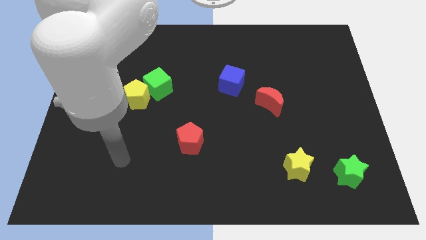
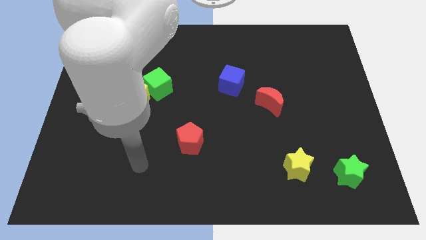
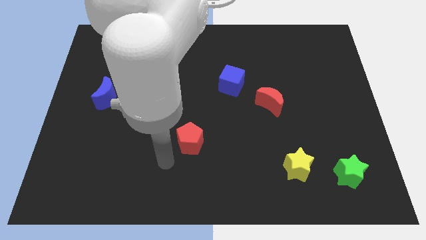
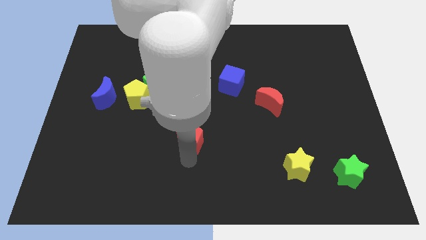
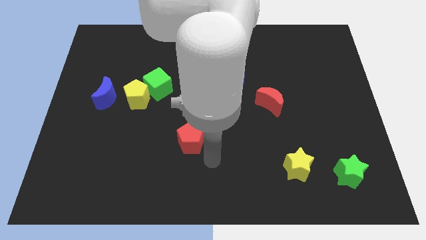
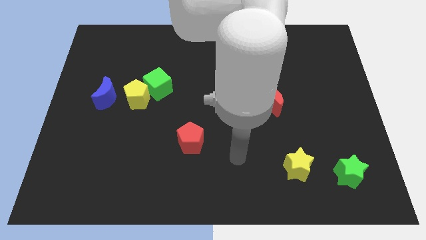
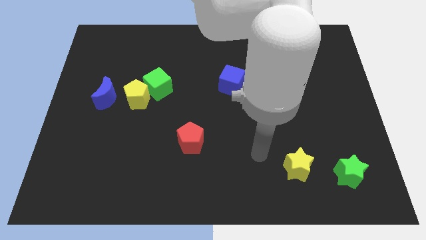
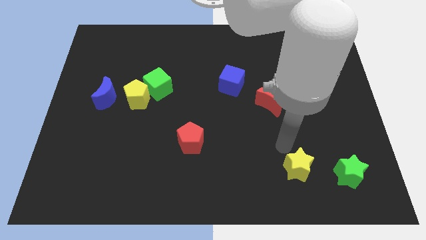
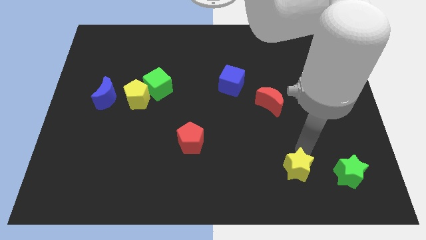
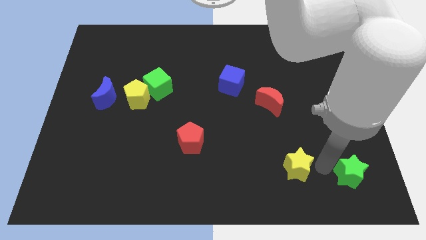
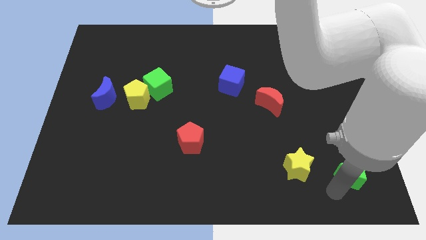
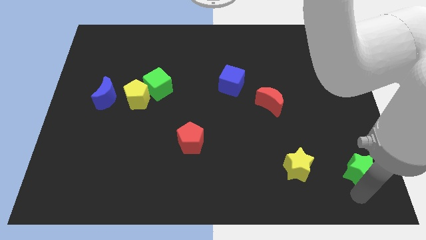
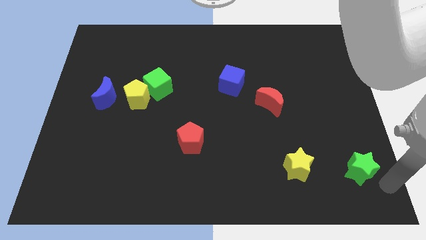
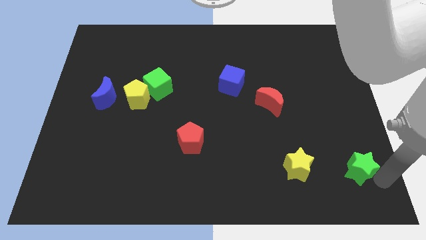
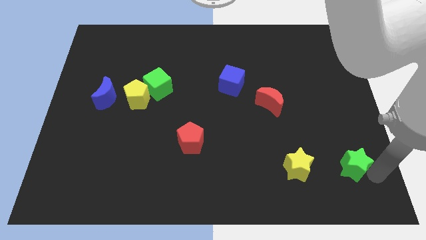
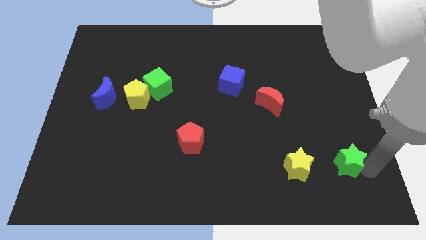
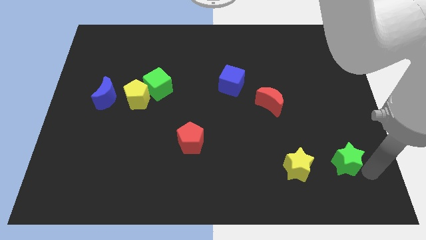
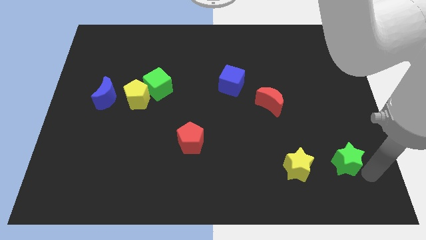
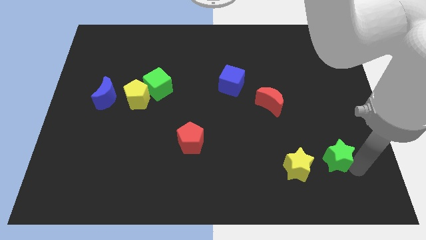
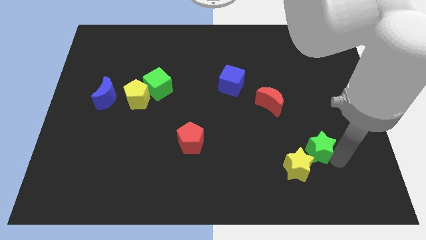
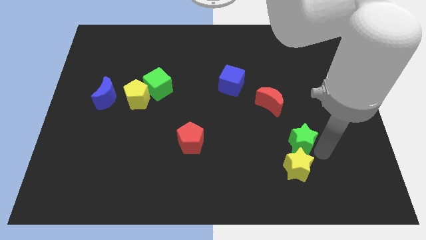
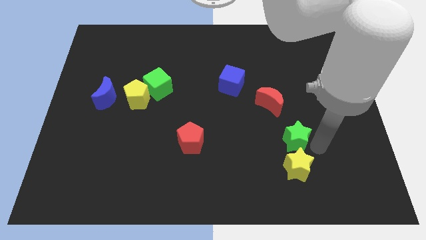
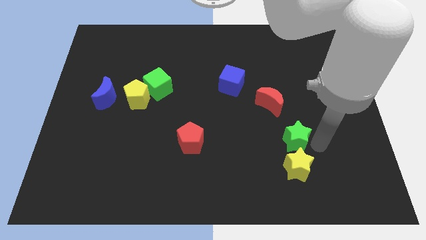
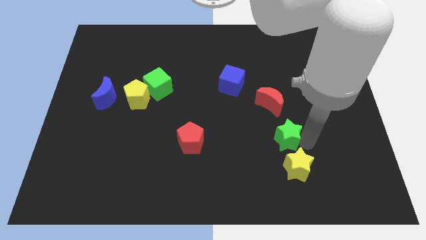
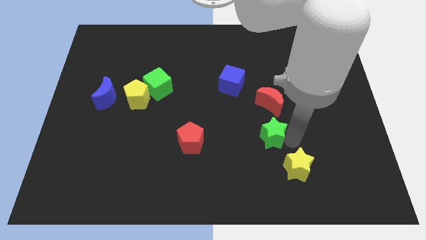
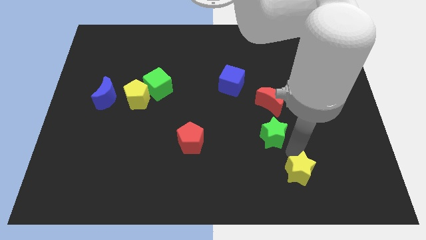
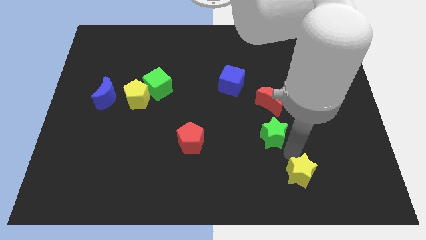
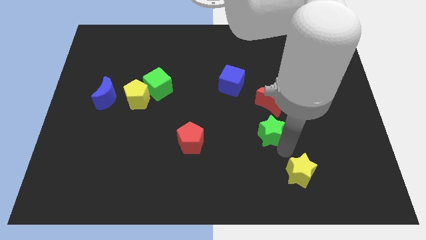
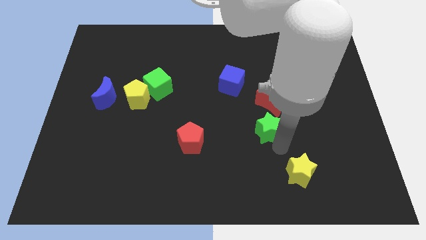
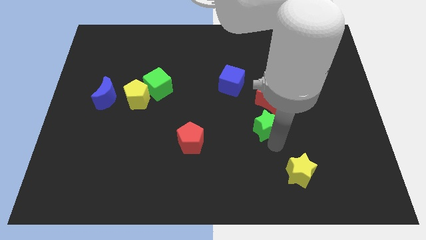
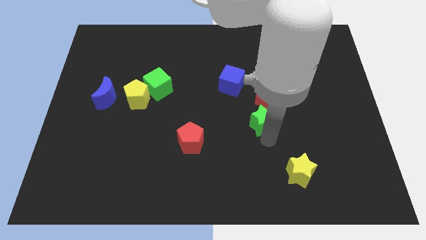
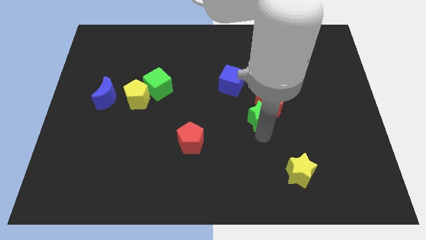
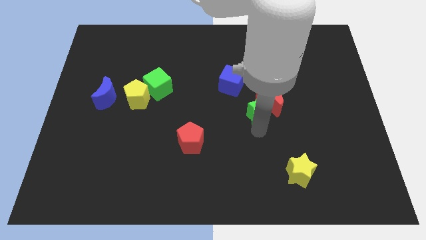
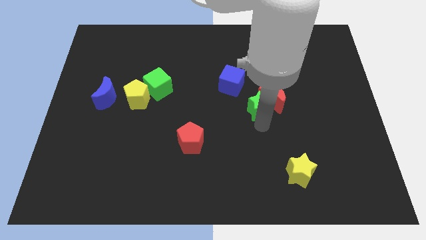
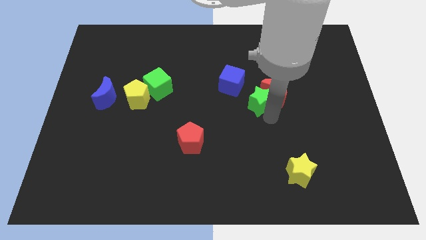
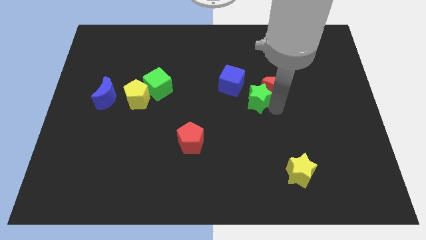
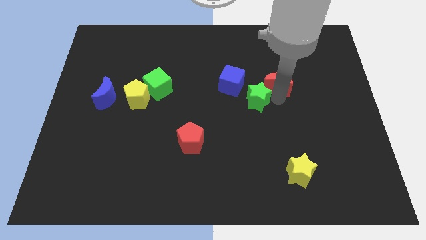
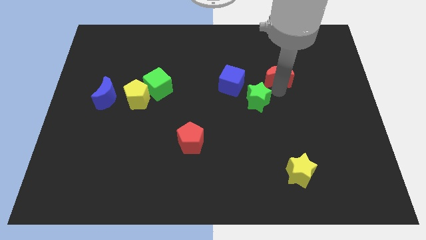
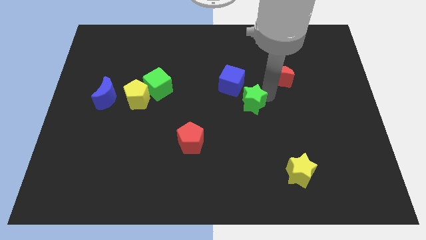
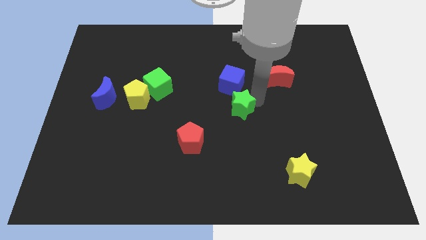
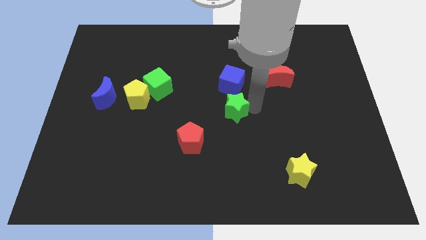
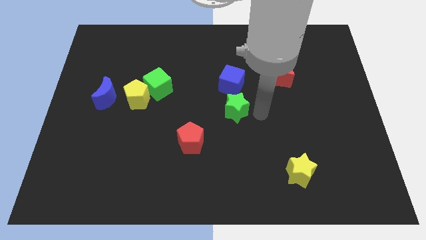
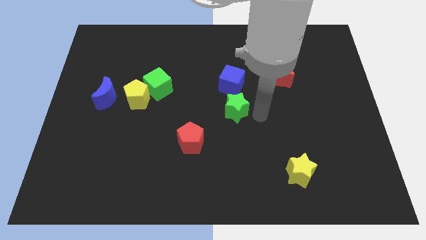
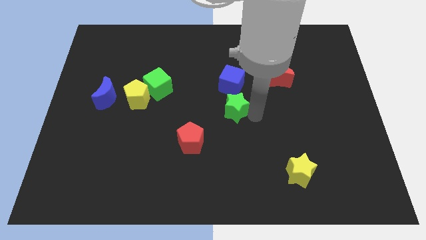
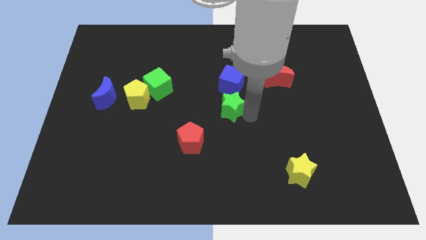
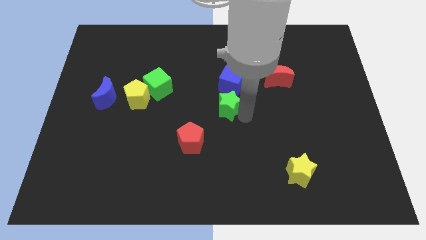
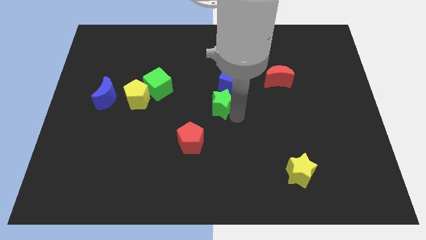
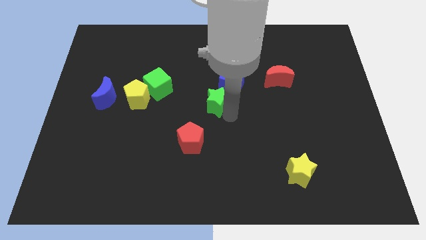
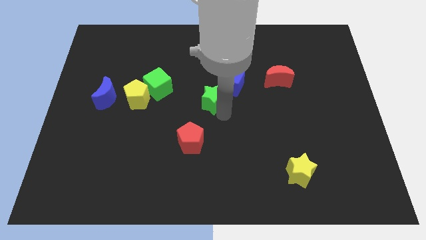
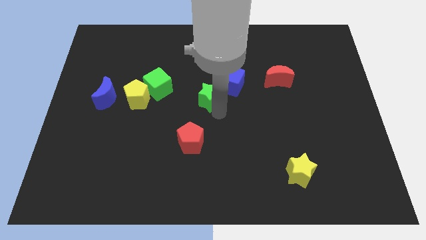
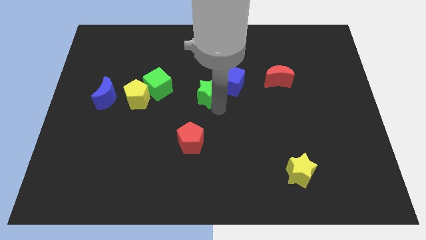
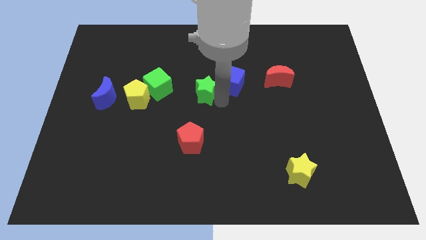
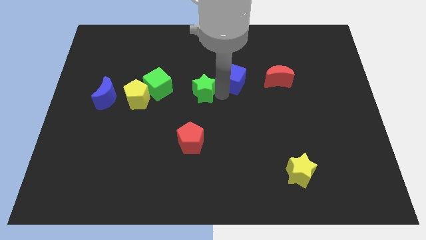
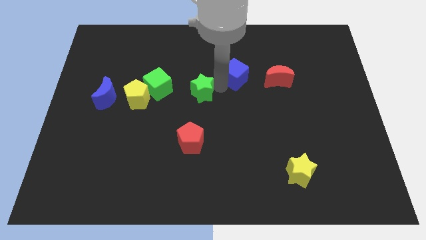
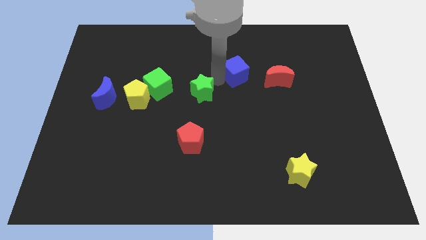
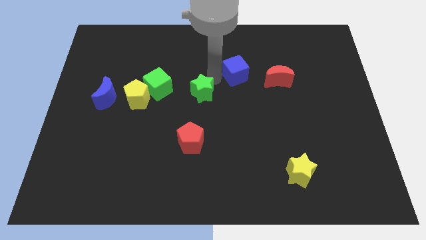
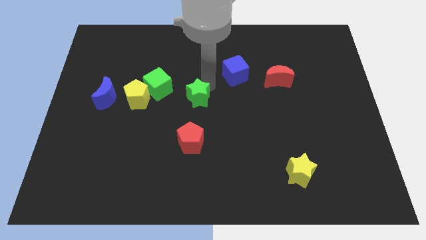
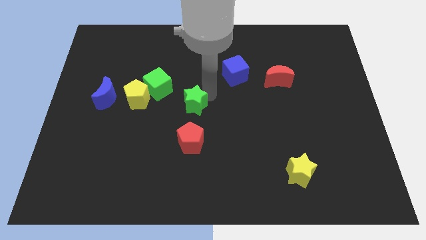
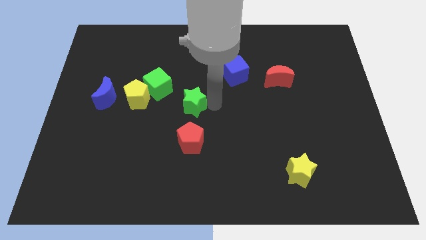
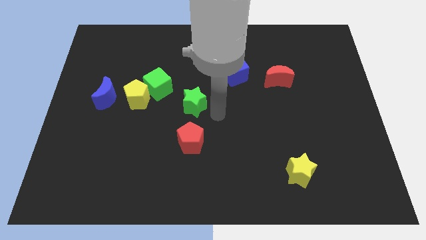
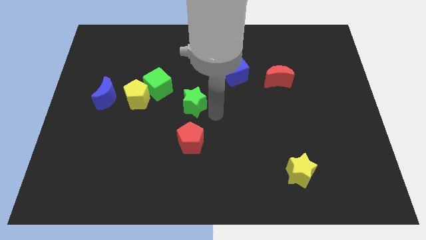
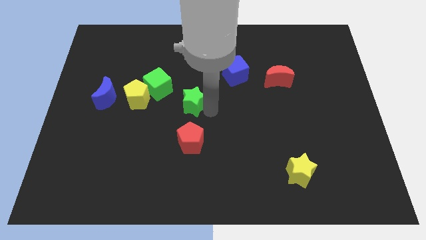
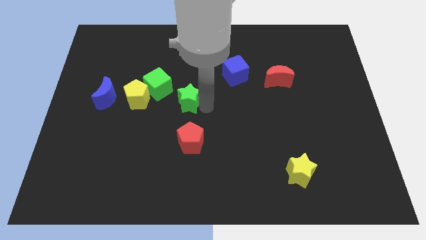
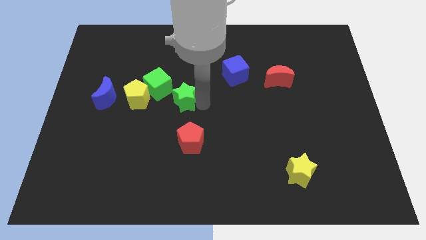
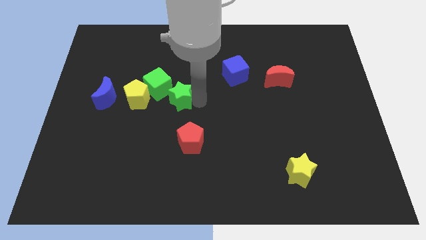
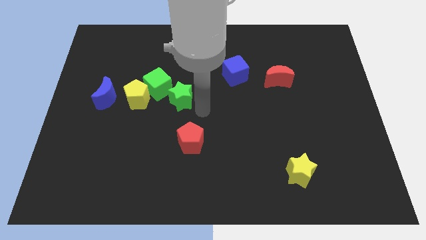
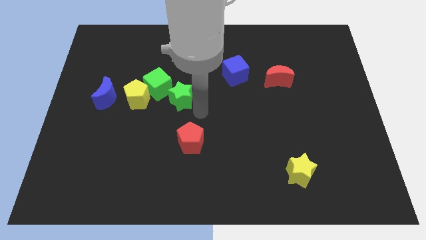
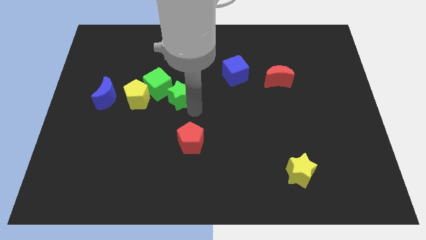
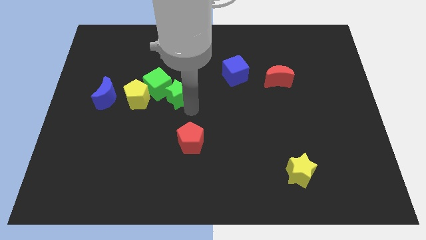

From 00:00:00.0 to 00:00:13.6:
put the green star close to the green cube
